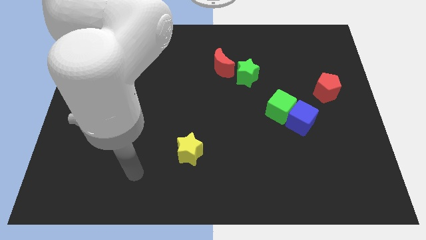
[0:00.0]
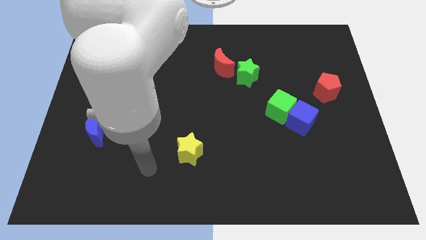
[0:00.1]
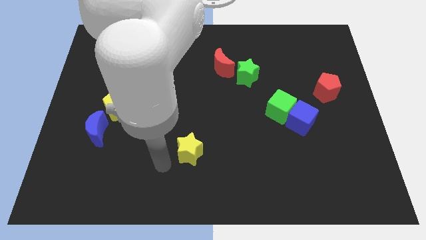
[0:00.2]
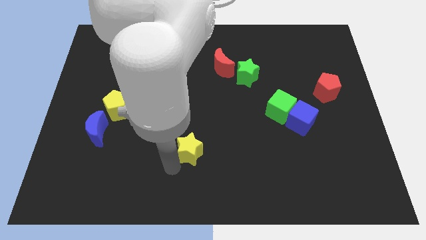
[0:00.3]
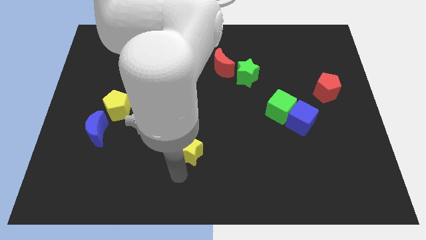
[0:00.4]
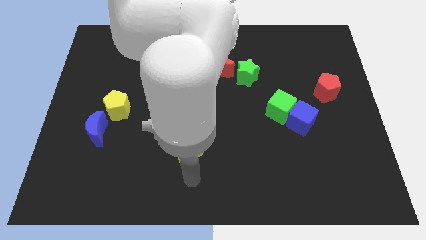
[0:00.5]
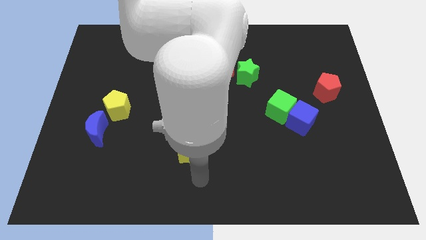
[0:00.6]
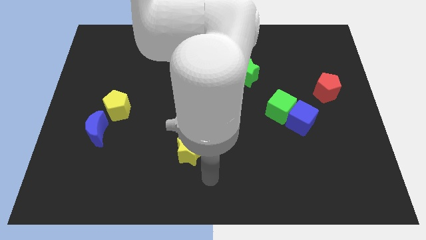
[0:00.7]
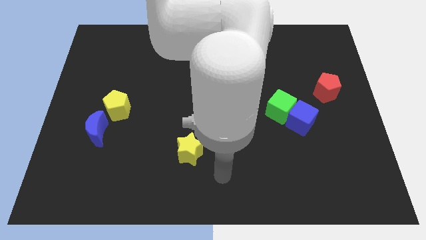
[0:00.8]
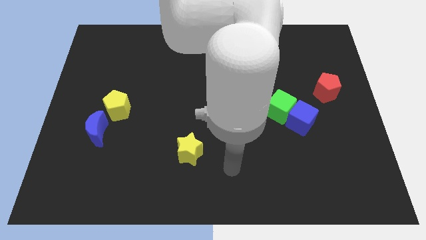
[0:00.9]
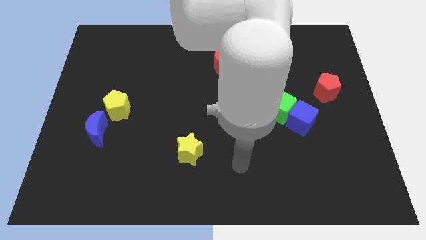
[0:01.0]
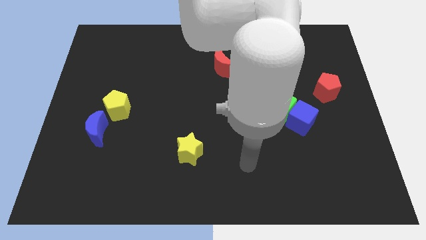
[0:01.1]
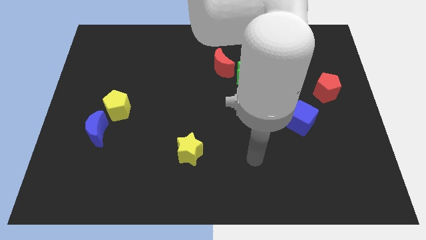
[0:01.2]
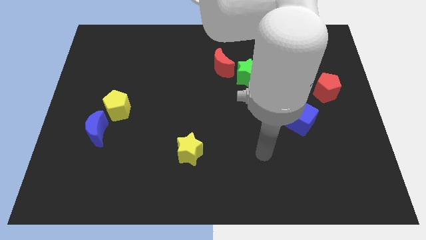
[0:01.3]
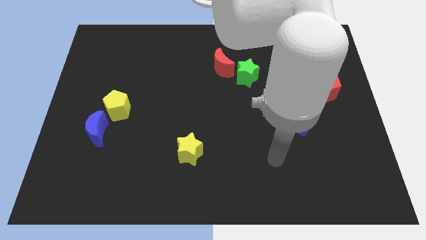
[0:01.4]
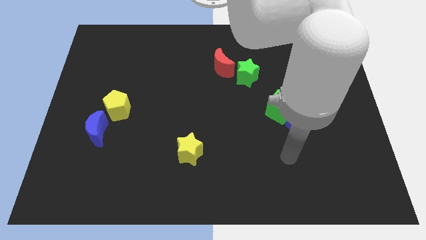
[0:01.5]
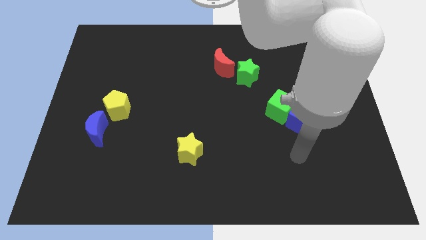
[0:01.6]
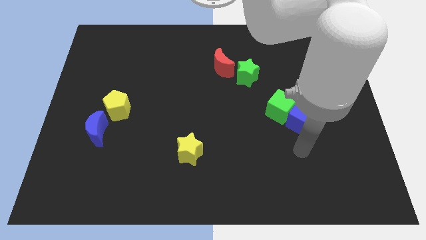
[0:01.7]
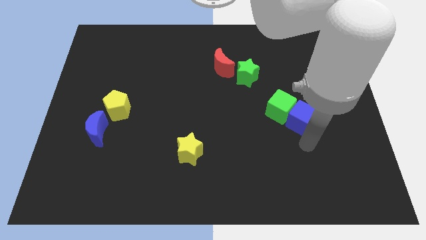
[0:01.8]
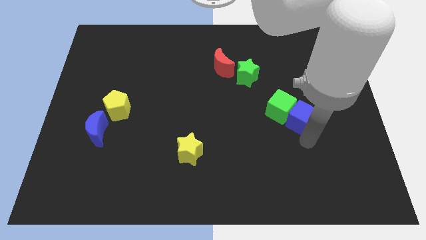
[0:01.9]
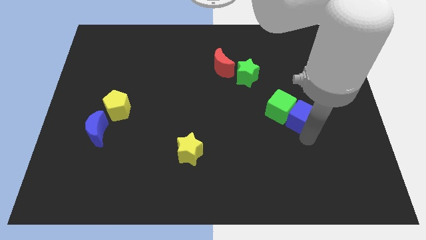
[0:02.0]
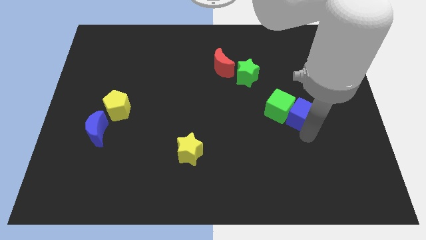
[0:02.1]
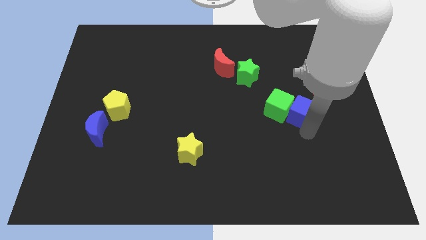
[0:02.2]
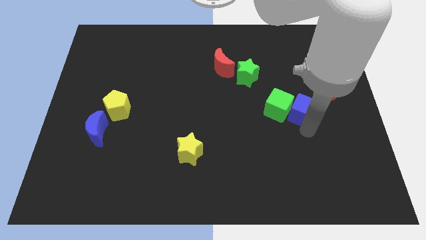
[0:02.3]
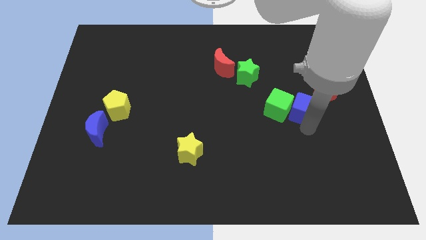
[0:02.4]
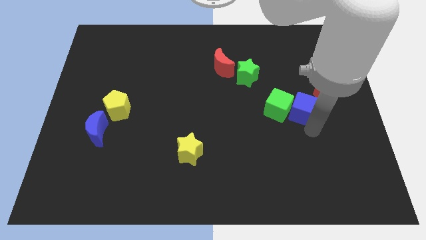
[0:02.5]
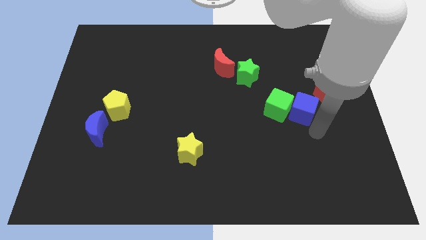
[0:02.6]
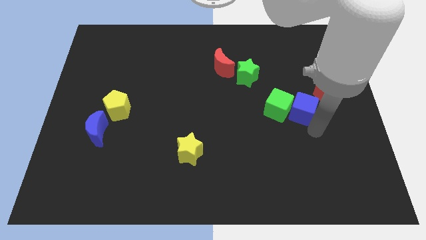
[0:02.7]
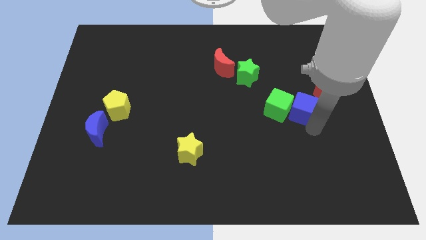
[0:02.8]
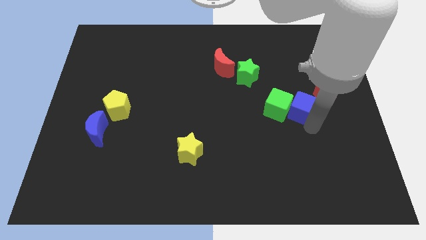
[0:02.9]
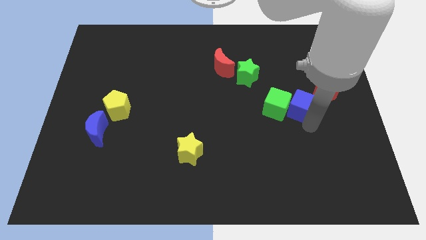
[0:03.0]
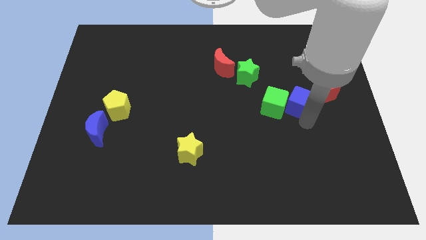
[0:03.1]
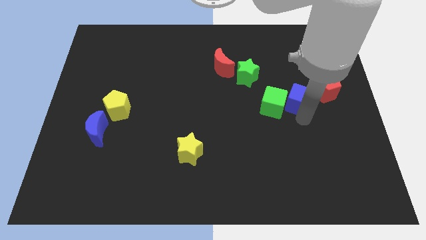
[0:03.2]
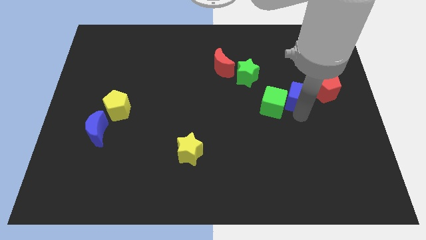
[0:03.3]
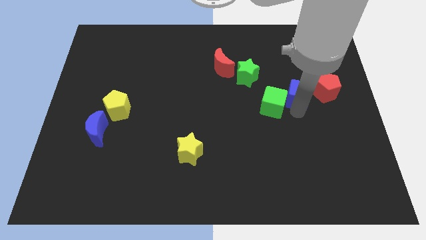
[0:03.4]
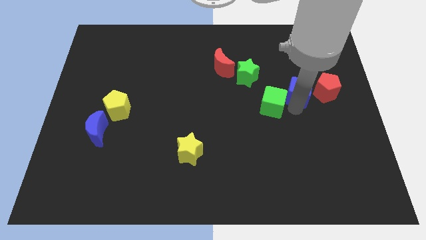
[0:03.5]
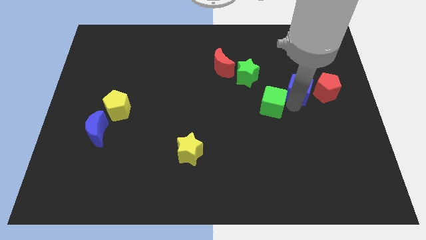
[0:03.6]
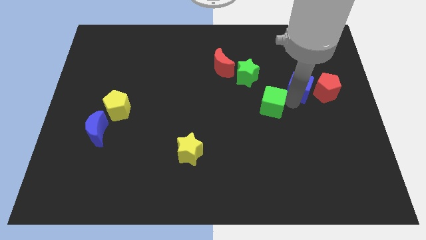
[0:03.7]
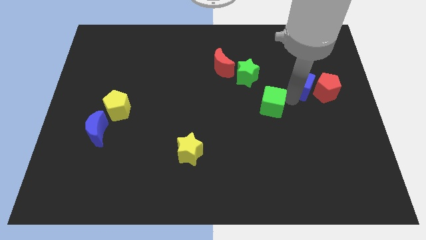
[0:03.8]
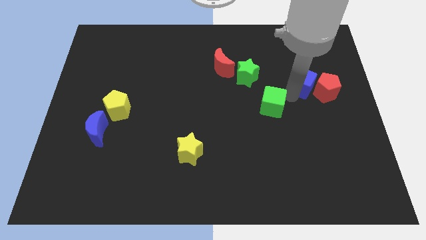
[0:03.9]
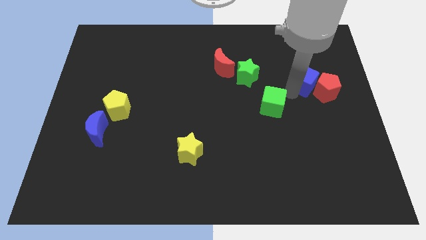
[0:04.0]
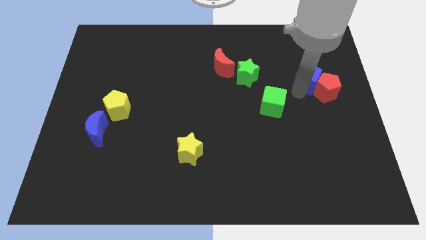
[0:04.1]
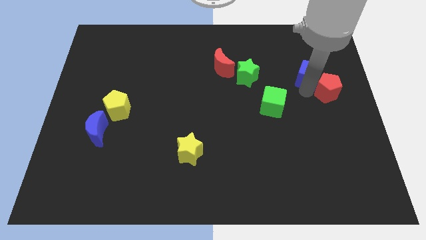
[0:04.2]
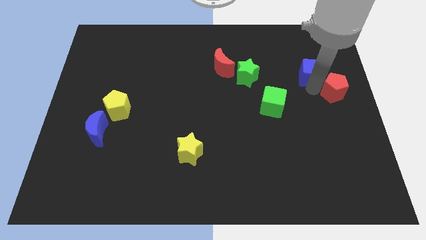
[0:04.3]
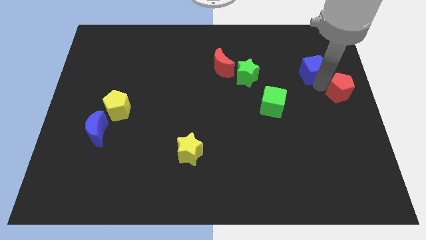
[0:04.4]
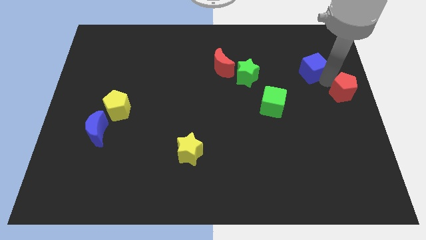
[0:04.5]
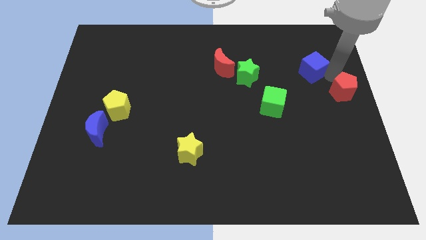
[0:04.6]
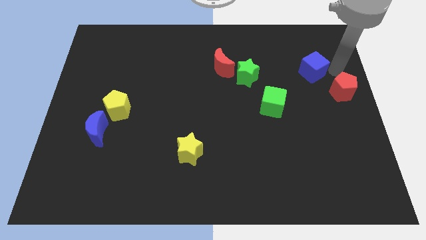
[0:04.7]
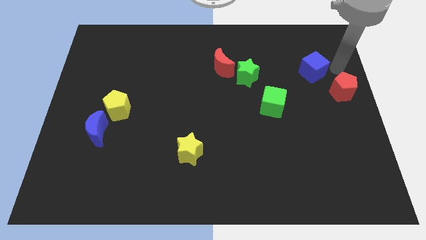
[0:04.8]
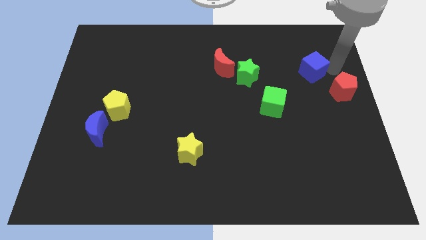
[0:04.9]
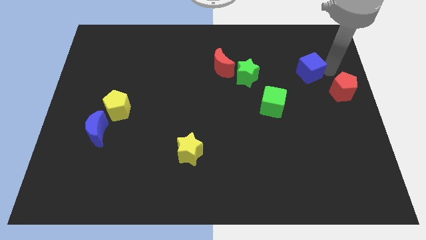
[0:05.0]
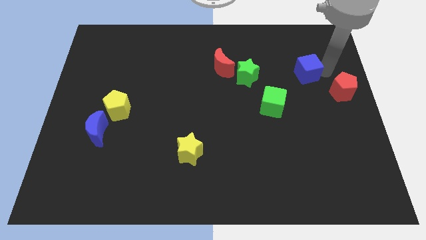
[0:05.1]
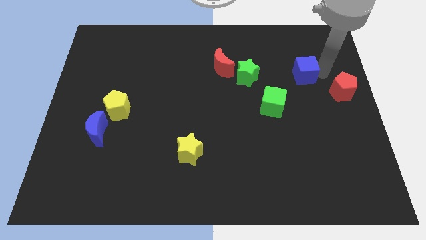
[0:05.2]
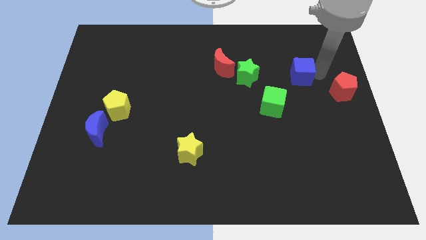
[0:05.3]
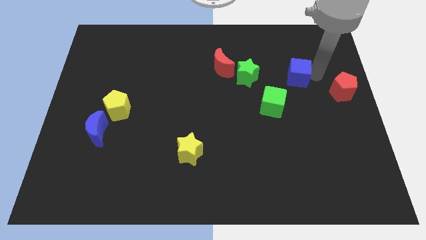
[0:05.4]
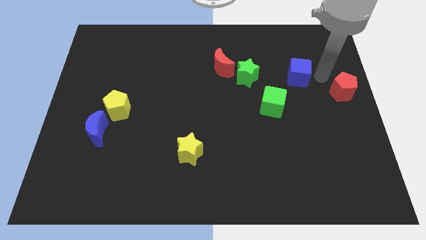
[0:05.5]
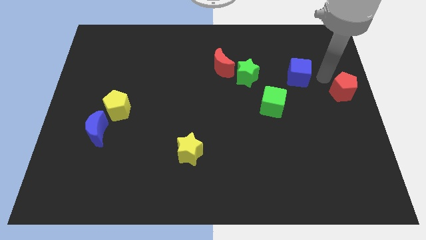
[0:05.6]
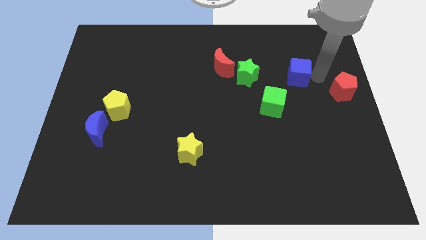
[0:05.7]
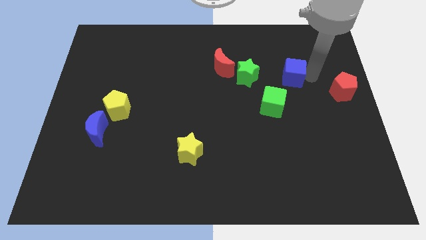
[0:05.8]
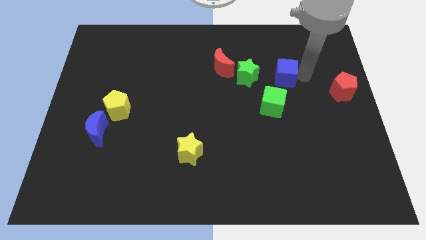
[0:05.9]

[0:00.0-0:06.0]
push the blue cube above the green cube

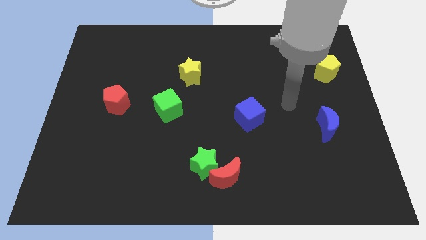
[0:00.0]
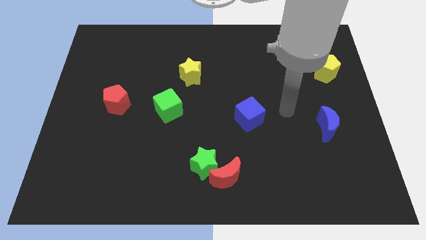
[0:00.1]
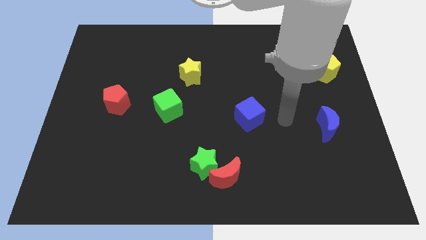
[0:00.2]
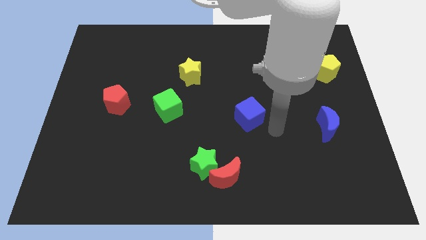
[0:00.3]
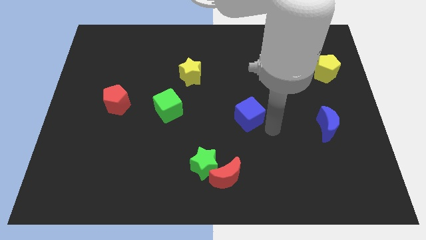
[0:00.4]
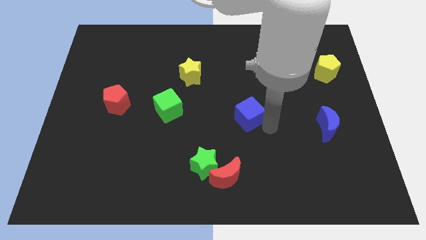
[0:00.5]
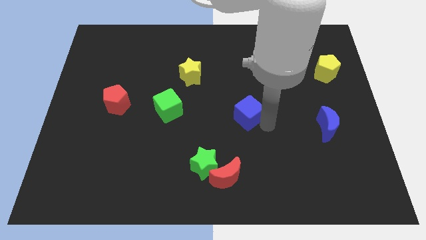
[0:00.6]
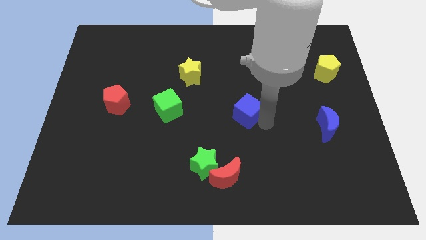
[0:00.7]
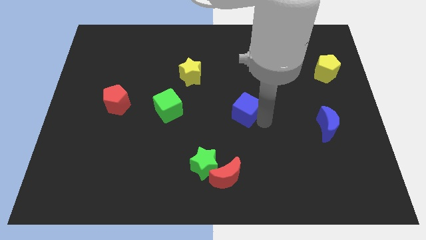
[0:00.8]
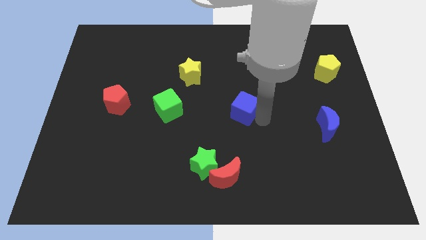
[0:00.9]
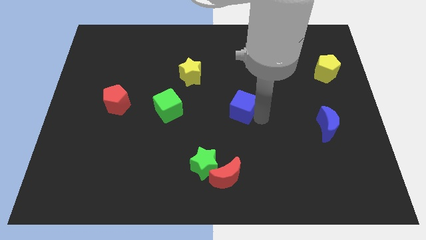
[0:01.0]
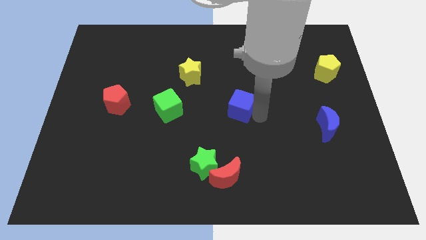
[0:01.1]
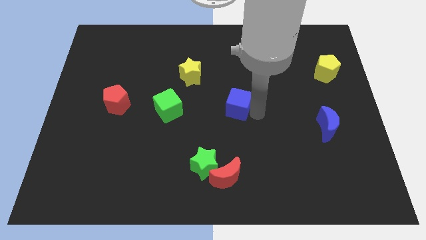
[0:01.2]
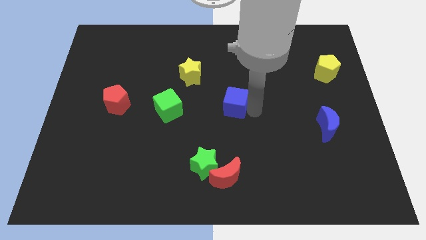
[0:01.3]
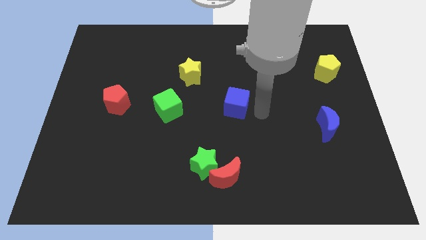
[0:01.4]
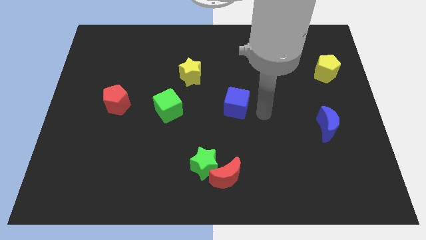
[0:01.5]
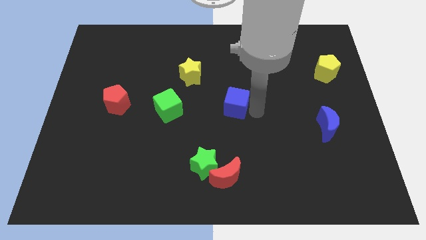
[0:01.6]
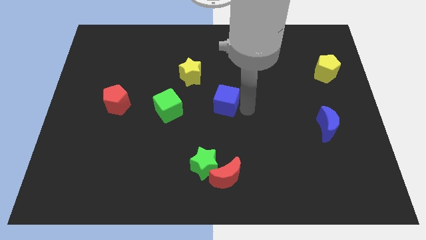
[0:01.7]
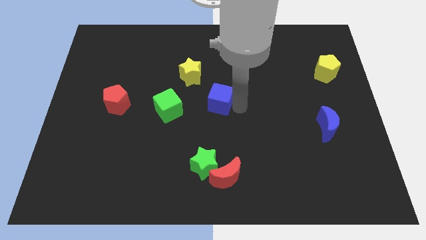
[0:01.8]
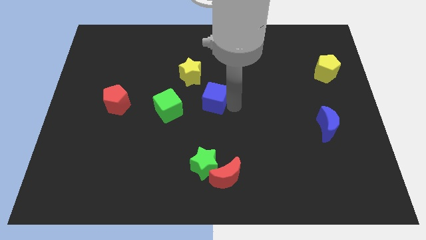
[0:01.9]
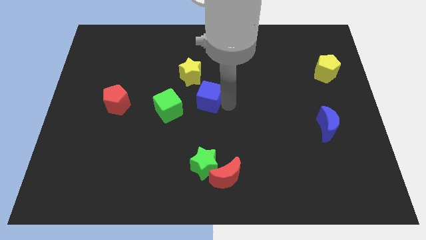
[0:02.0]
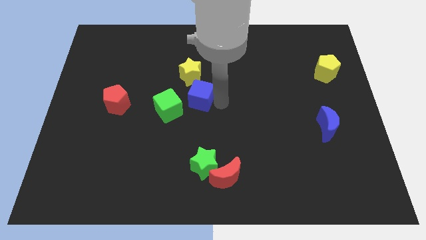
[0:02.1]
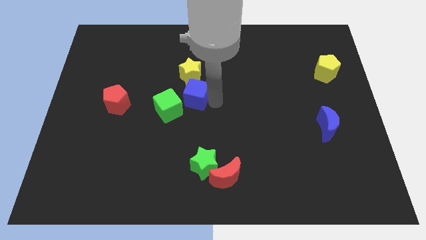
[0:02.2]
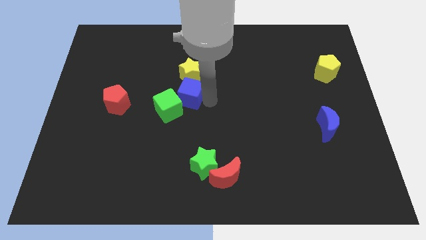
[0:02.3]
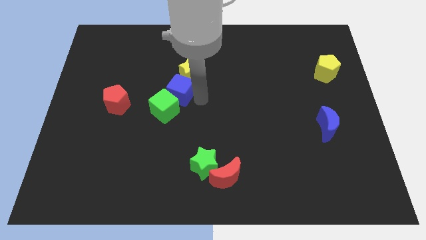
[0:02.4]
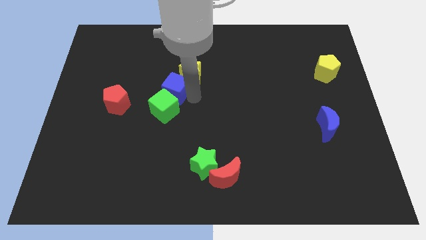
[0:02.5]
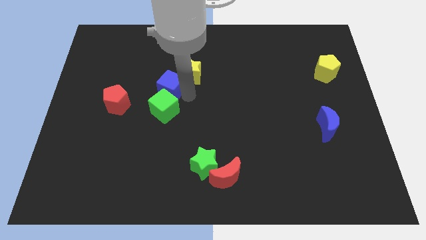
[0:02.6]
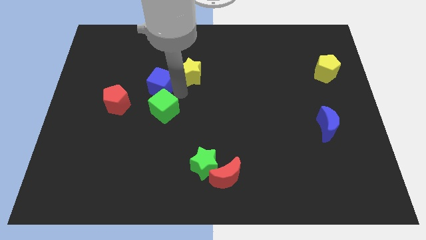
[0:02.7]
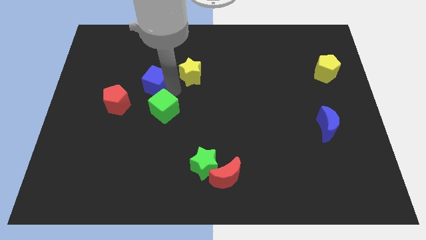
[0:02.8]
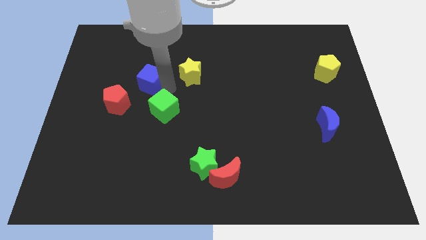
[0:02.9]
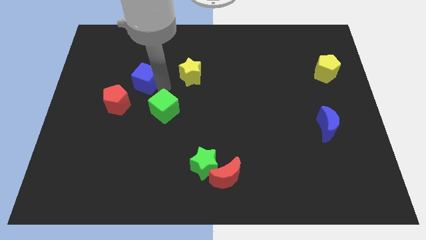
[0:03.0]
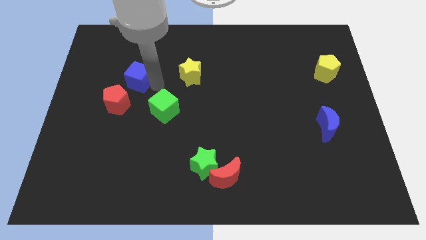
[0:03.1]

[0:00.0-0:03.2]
move the blue cube to the top of the red pentagon
